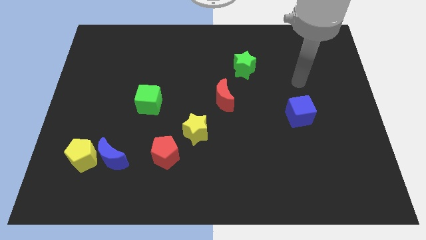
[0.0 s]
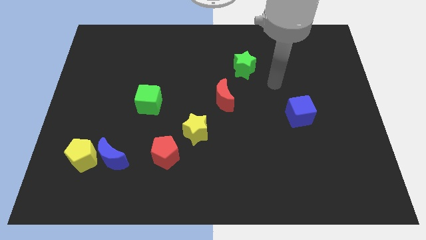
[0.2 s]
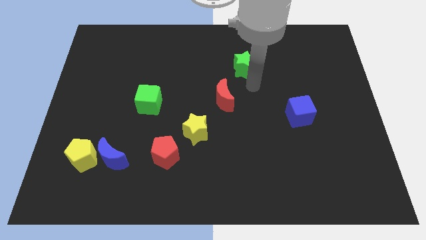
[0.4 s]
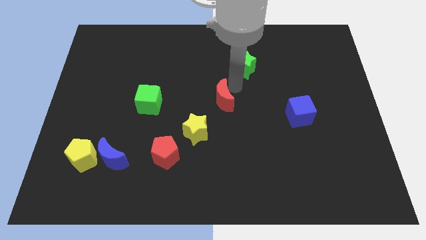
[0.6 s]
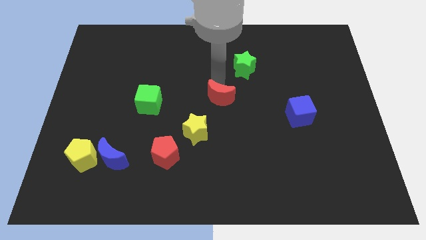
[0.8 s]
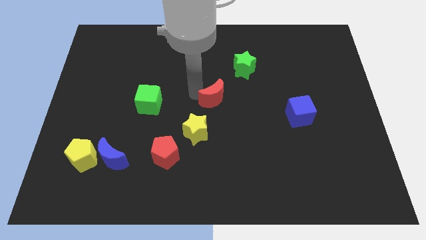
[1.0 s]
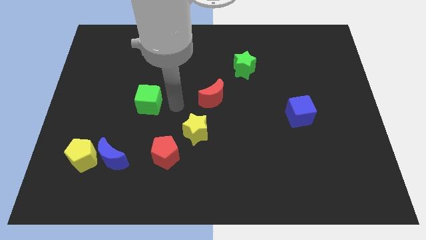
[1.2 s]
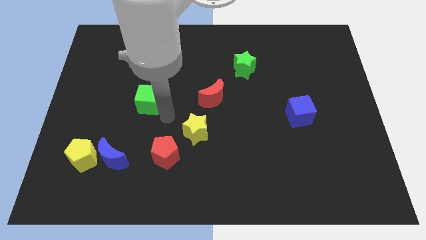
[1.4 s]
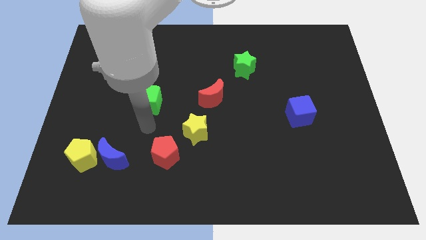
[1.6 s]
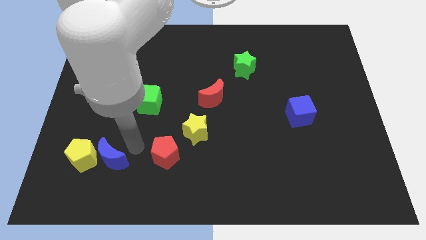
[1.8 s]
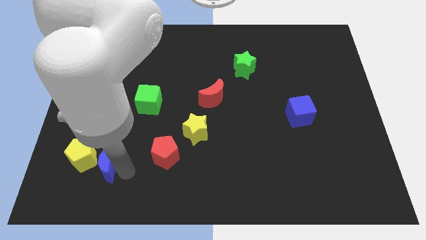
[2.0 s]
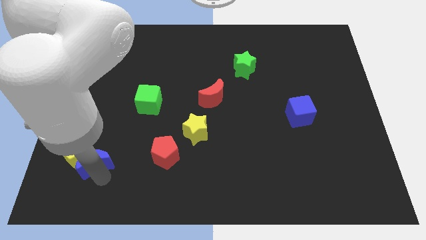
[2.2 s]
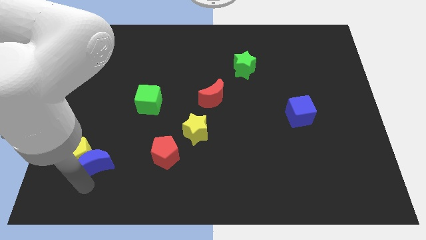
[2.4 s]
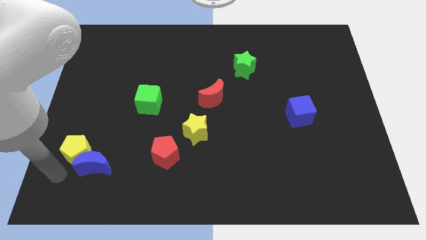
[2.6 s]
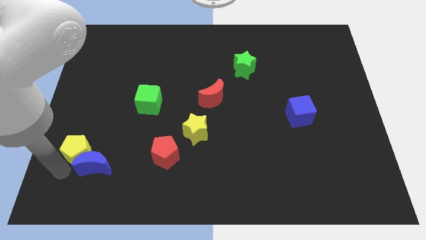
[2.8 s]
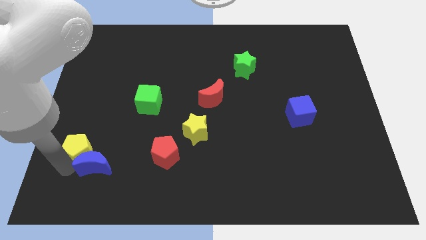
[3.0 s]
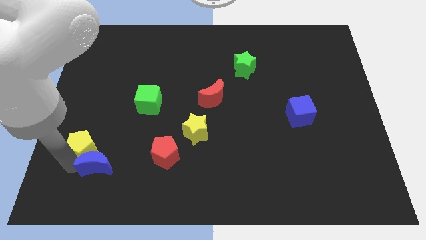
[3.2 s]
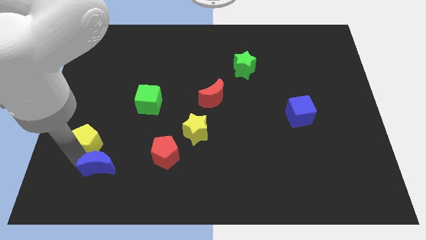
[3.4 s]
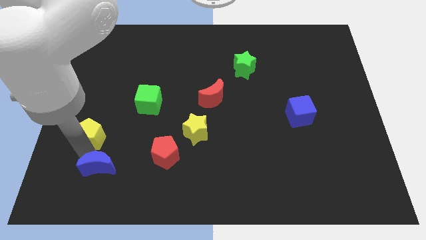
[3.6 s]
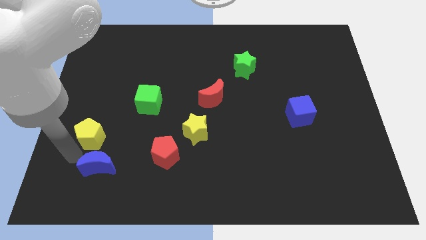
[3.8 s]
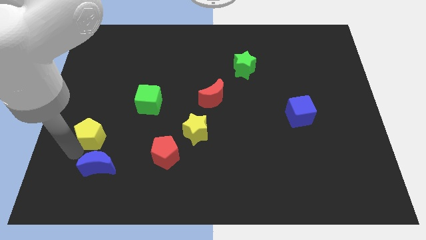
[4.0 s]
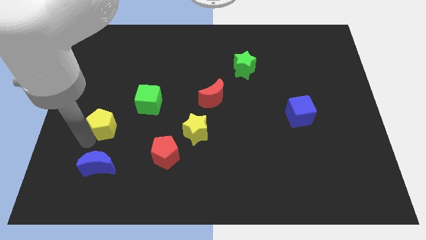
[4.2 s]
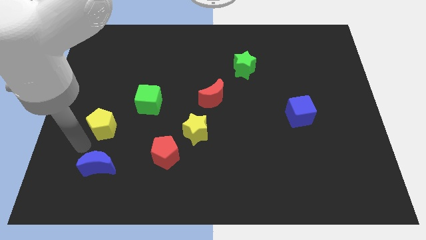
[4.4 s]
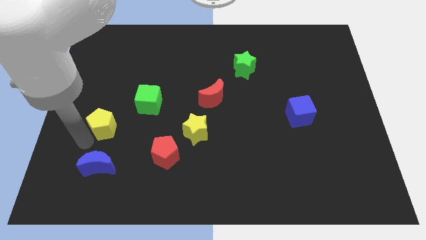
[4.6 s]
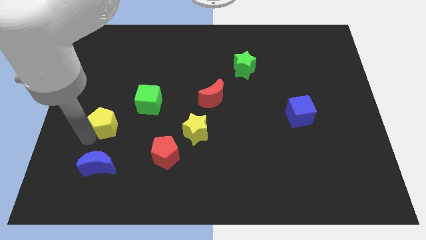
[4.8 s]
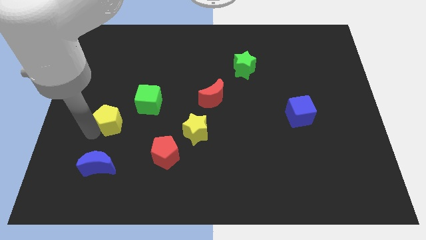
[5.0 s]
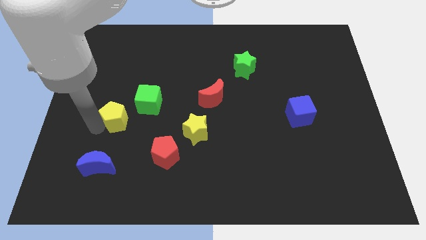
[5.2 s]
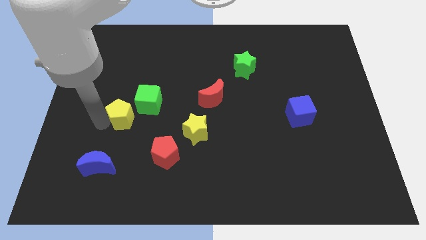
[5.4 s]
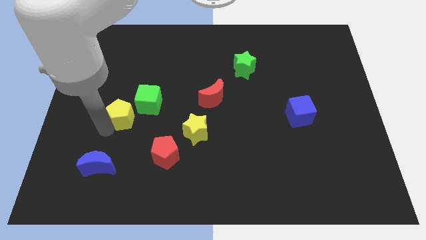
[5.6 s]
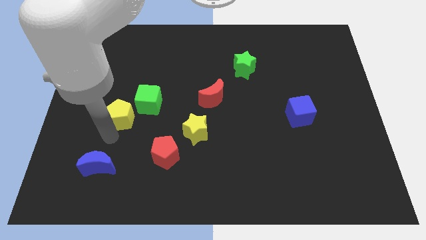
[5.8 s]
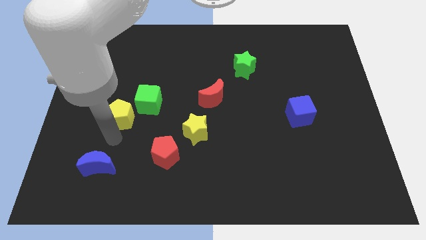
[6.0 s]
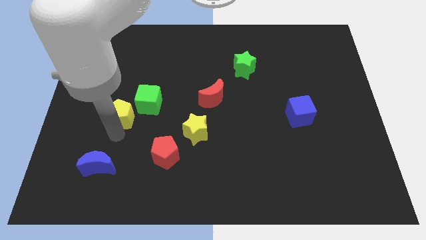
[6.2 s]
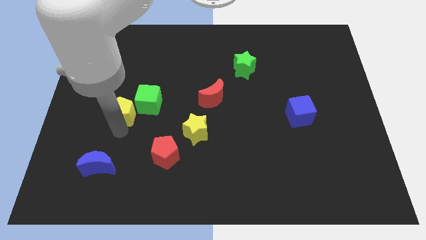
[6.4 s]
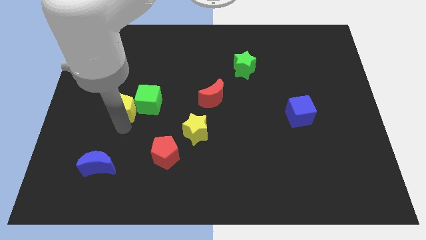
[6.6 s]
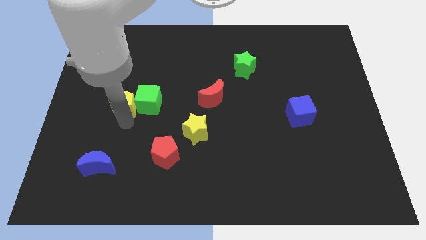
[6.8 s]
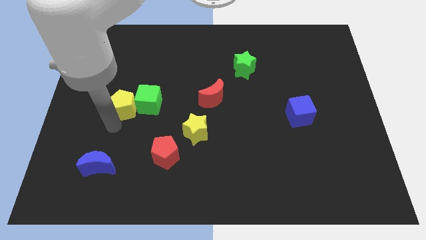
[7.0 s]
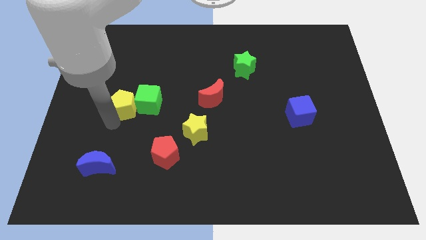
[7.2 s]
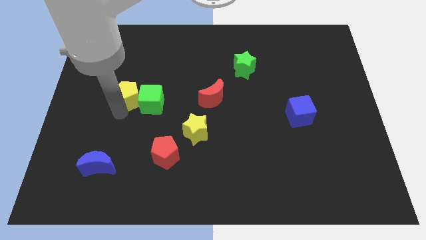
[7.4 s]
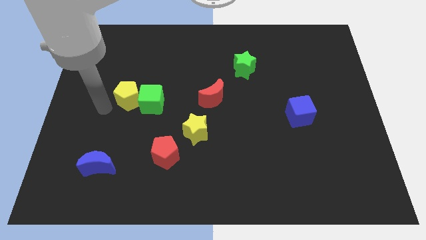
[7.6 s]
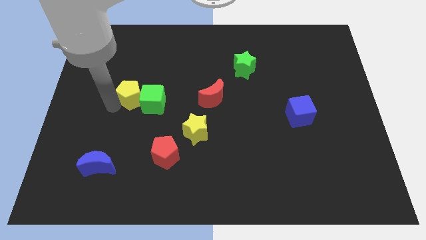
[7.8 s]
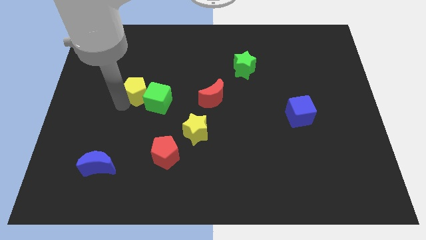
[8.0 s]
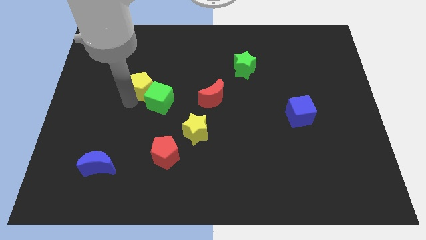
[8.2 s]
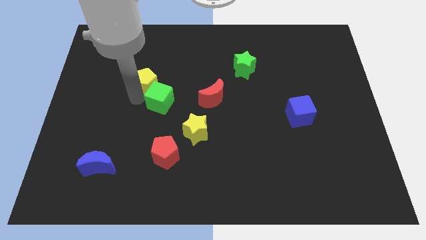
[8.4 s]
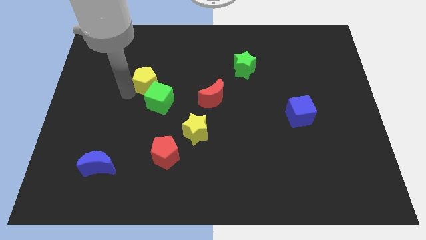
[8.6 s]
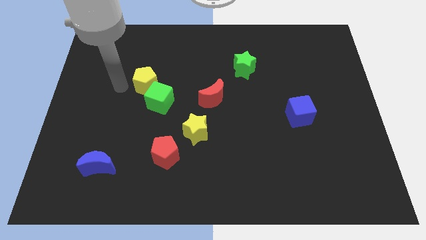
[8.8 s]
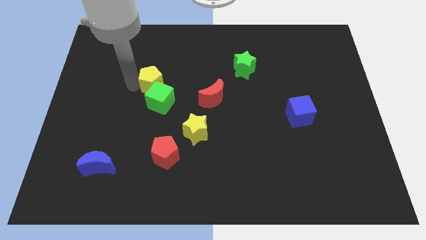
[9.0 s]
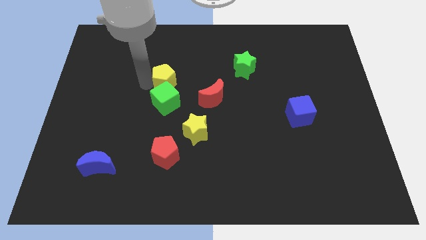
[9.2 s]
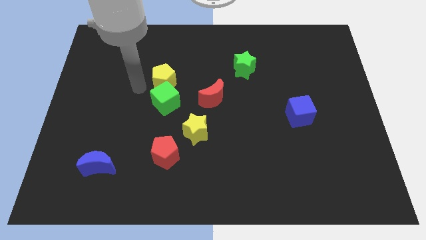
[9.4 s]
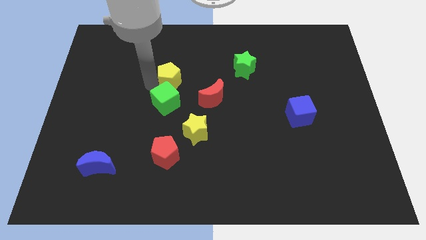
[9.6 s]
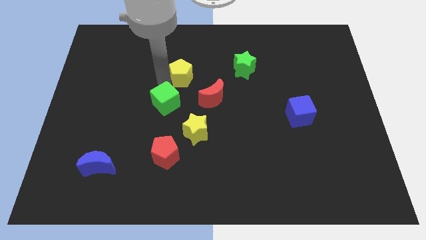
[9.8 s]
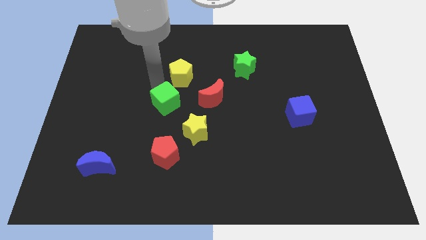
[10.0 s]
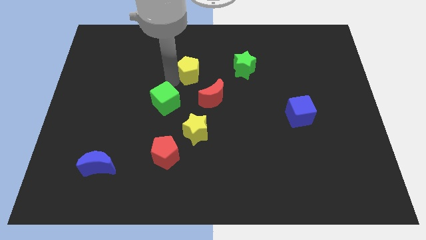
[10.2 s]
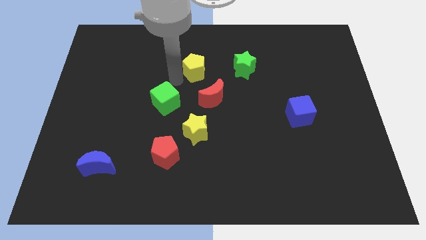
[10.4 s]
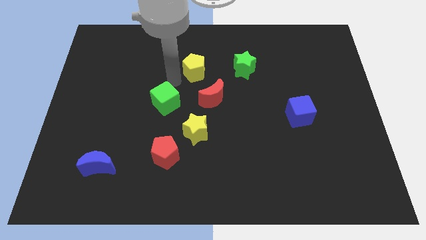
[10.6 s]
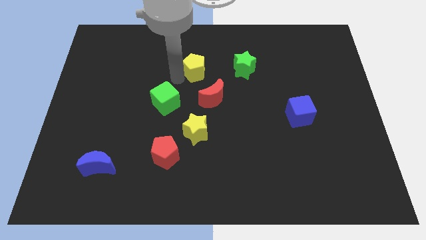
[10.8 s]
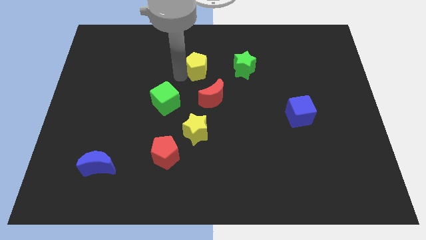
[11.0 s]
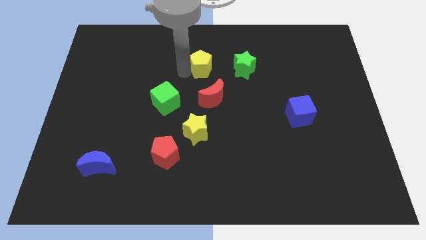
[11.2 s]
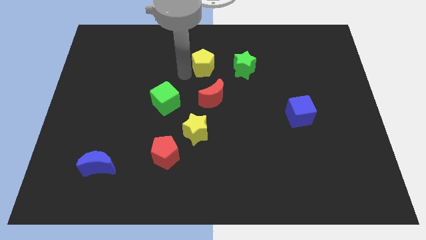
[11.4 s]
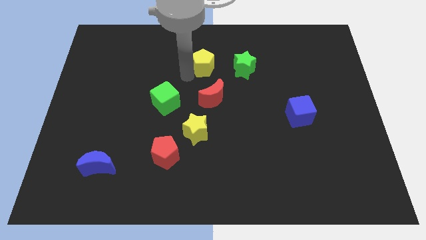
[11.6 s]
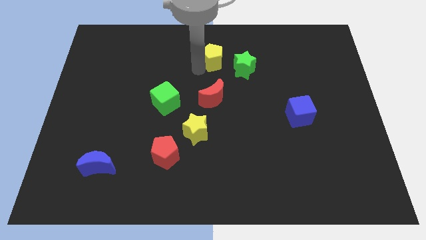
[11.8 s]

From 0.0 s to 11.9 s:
move the yellow pentagon to the top left of the green star

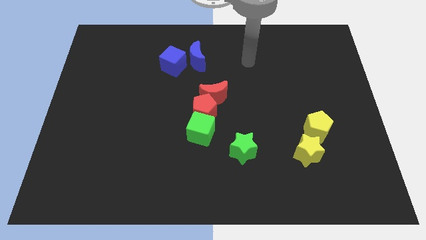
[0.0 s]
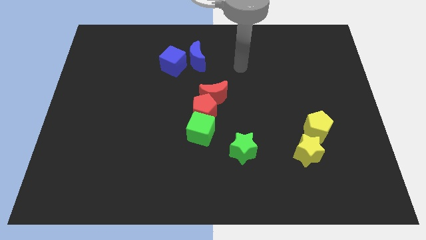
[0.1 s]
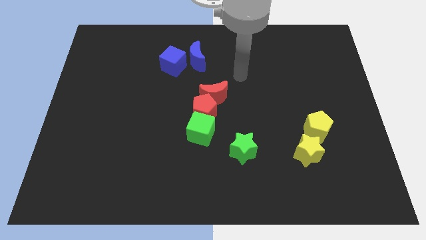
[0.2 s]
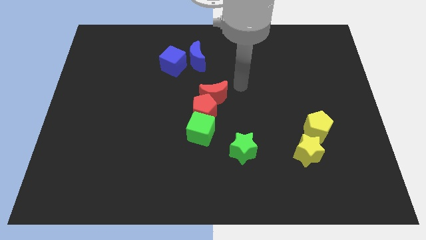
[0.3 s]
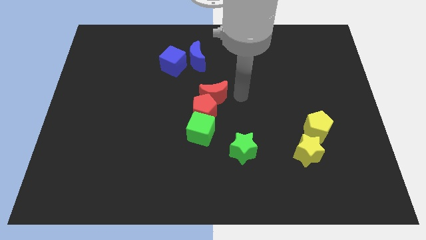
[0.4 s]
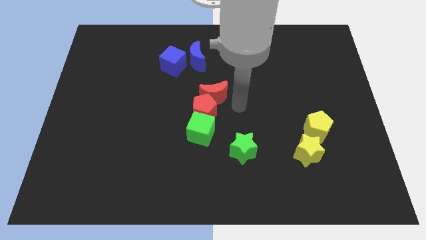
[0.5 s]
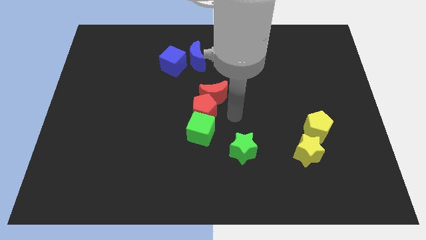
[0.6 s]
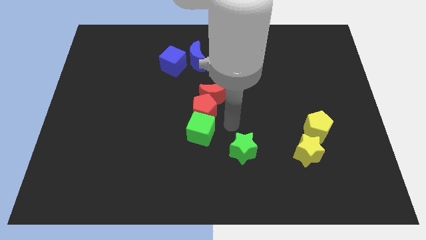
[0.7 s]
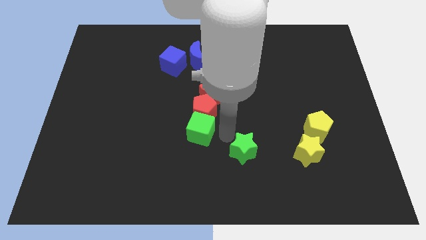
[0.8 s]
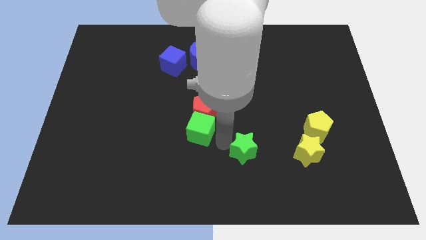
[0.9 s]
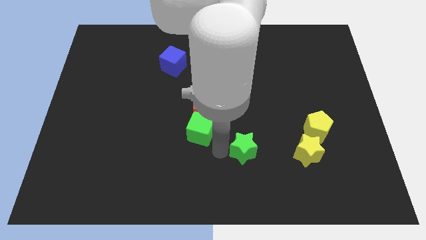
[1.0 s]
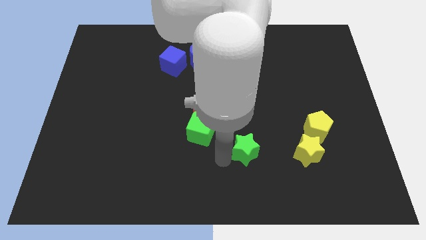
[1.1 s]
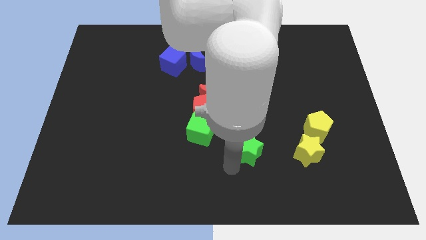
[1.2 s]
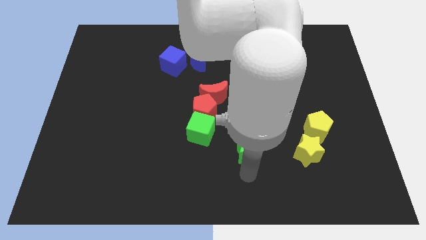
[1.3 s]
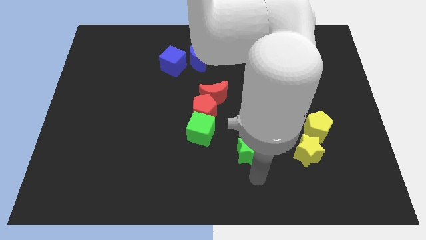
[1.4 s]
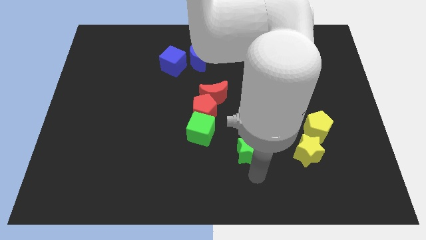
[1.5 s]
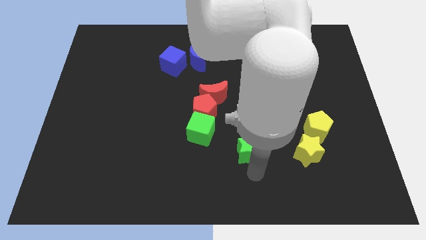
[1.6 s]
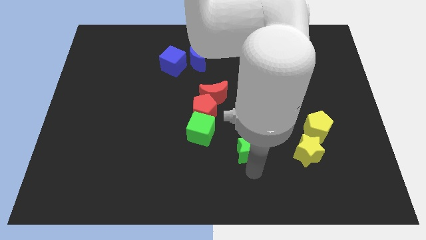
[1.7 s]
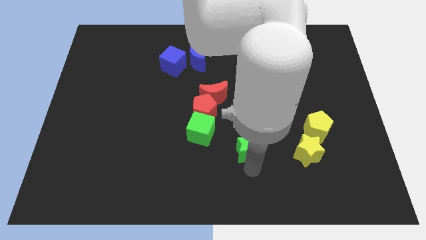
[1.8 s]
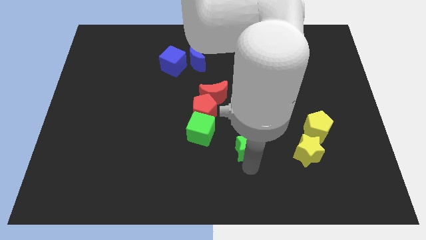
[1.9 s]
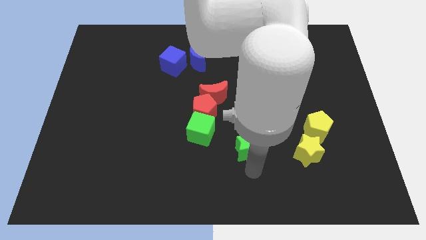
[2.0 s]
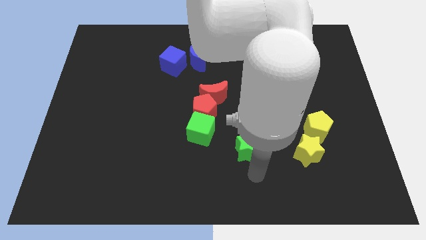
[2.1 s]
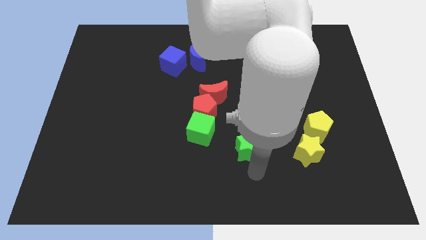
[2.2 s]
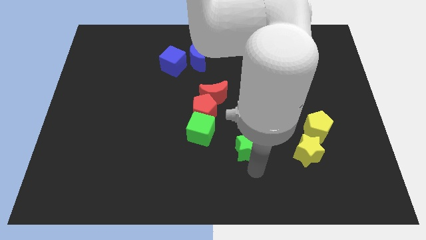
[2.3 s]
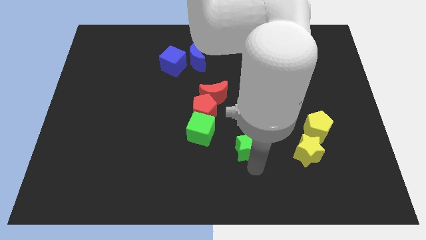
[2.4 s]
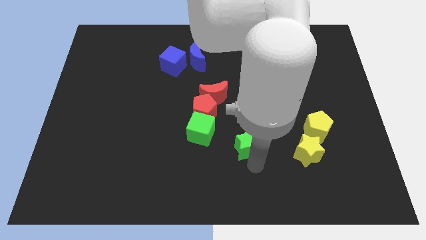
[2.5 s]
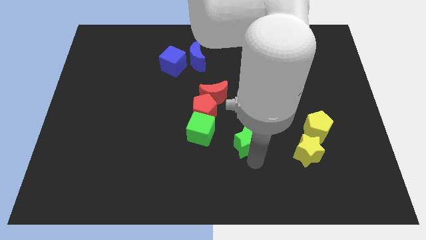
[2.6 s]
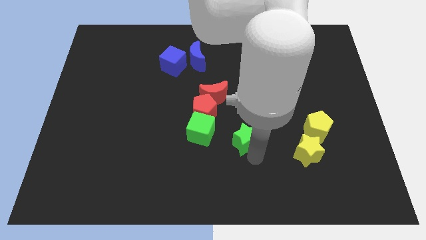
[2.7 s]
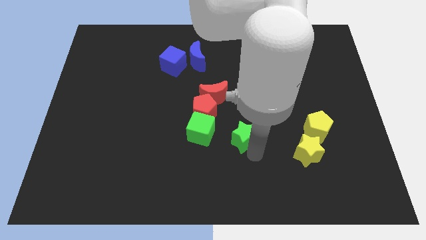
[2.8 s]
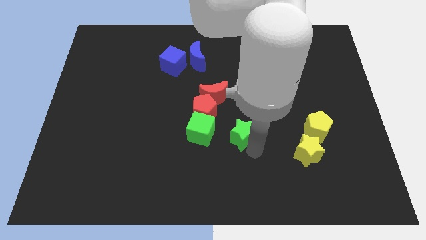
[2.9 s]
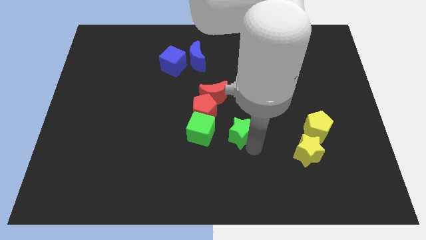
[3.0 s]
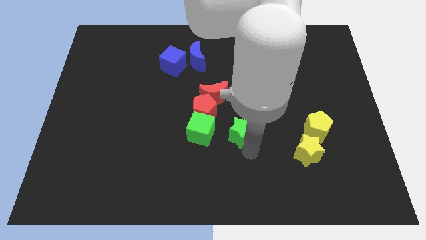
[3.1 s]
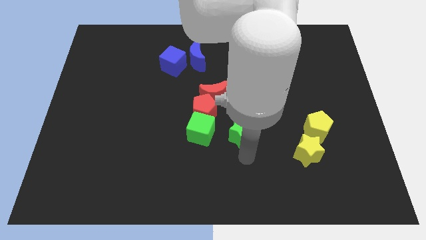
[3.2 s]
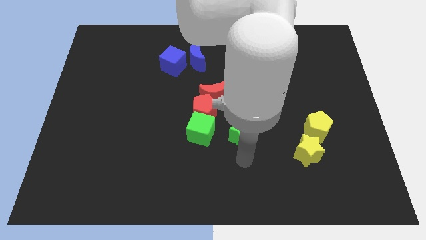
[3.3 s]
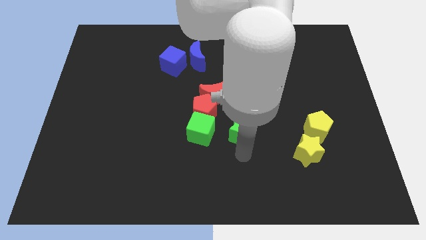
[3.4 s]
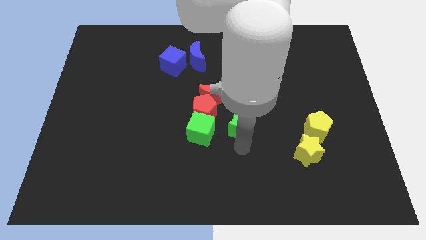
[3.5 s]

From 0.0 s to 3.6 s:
move the green star to the bottom right of the red moon
